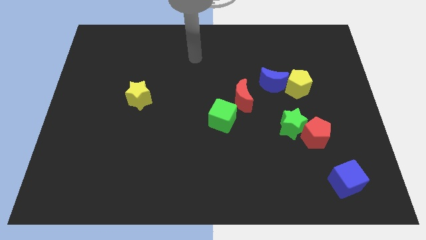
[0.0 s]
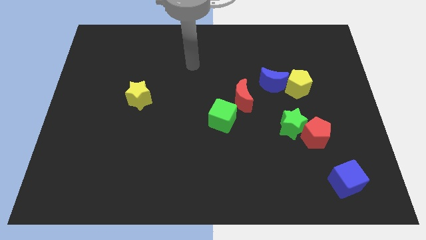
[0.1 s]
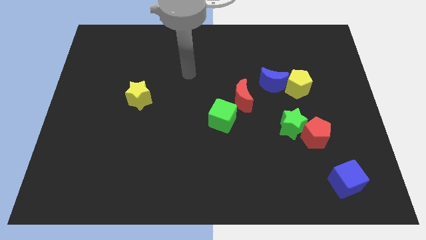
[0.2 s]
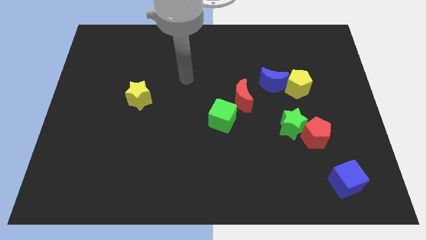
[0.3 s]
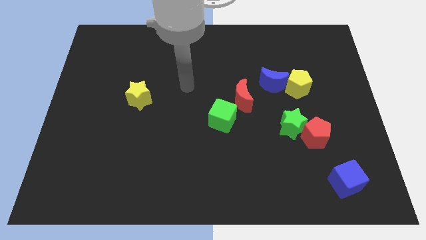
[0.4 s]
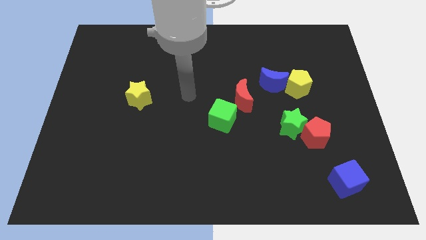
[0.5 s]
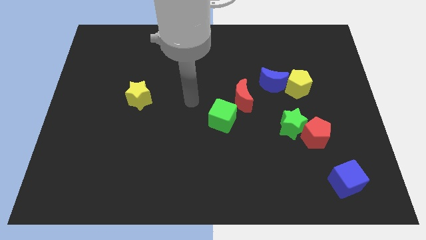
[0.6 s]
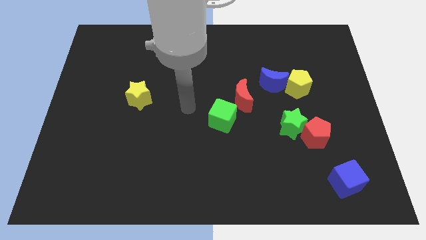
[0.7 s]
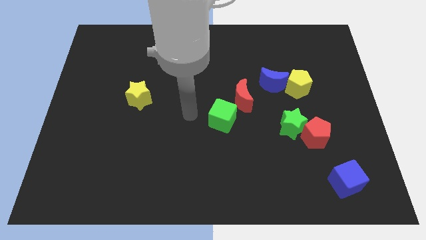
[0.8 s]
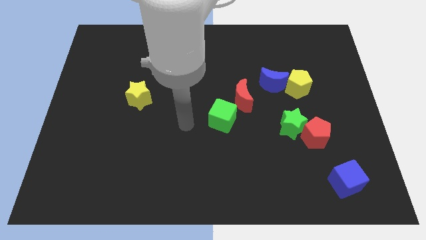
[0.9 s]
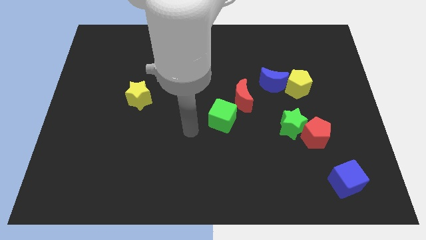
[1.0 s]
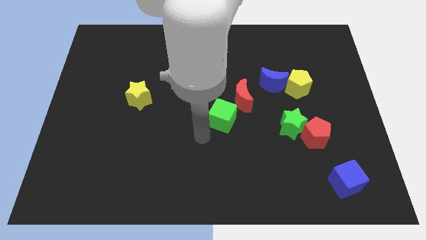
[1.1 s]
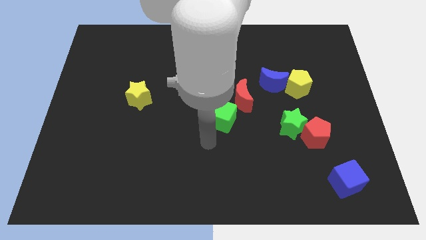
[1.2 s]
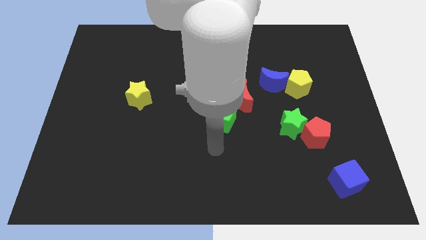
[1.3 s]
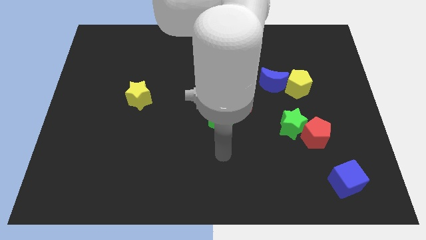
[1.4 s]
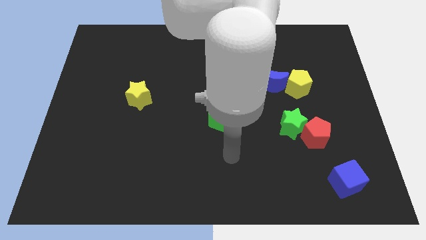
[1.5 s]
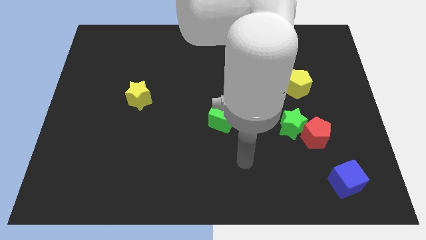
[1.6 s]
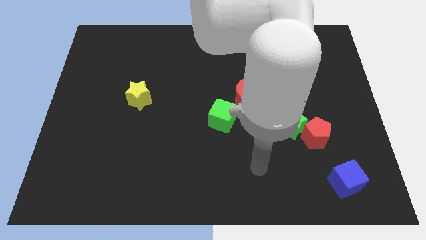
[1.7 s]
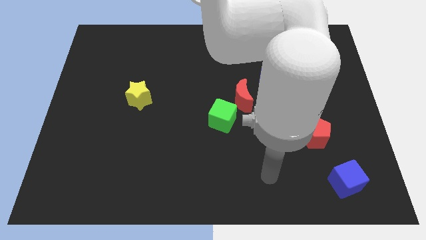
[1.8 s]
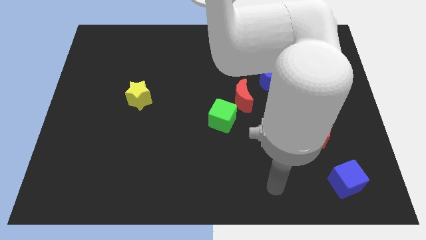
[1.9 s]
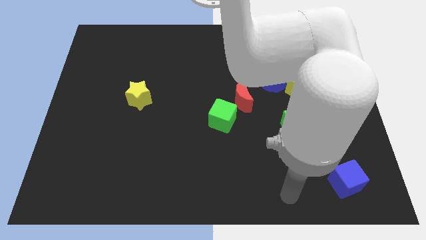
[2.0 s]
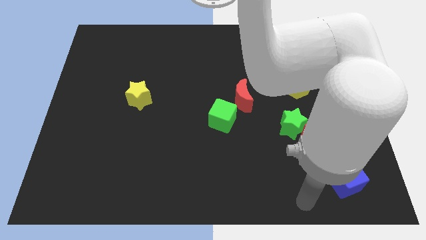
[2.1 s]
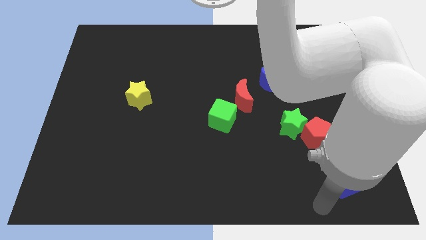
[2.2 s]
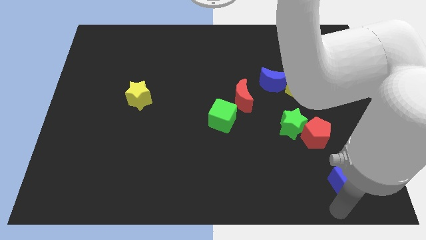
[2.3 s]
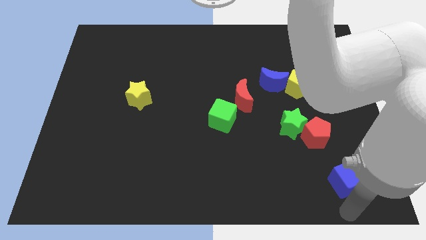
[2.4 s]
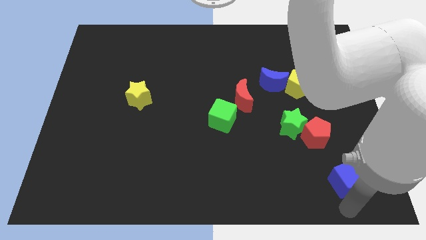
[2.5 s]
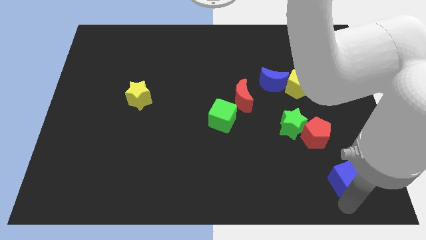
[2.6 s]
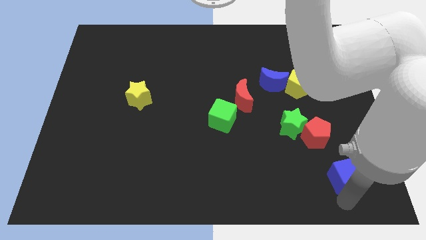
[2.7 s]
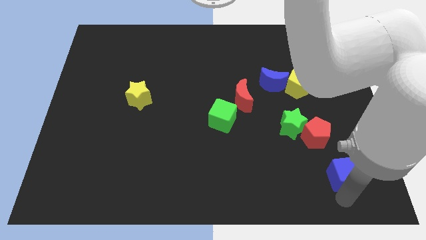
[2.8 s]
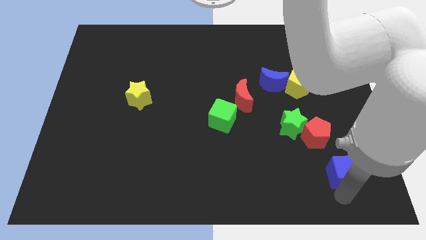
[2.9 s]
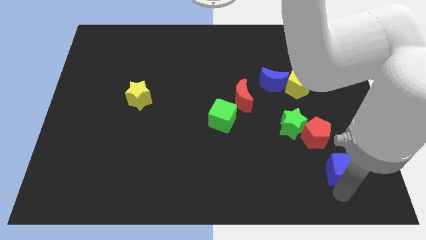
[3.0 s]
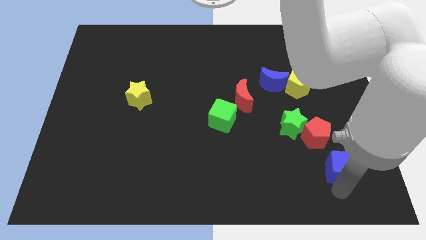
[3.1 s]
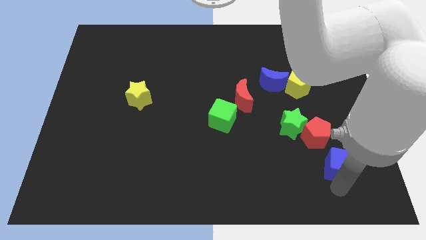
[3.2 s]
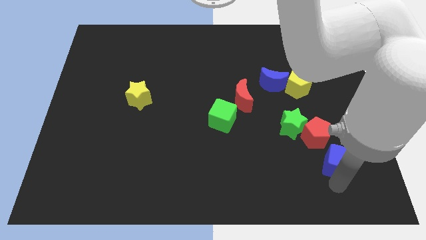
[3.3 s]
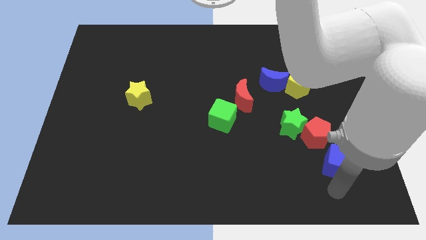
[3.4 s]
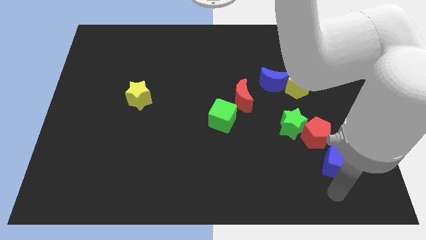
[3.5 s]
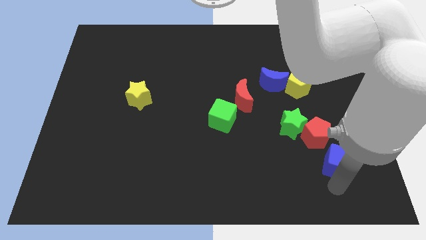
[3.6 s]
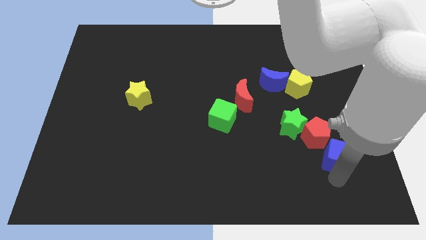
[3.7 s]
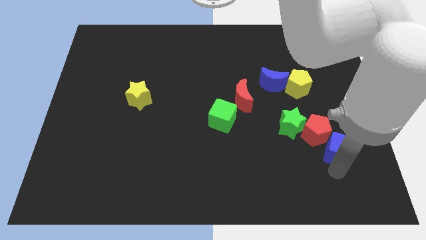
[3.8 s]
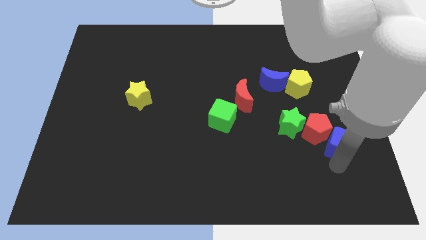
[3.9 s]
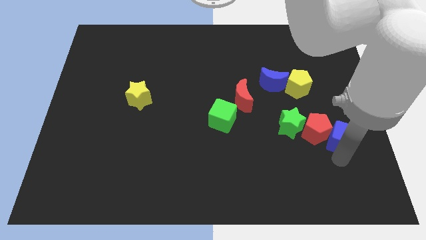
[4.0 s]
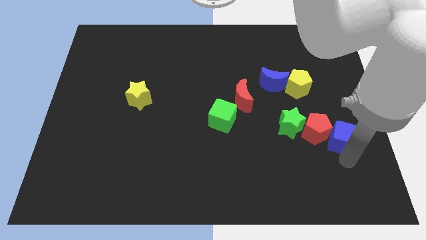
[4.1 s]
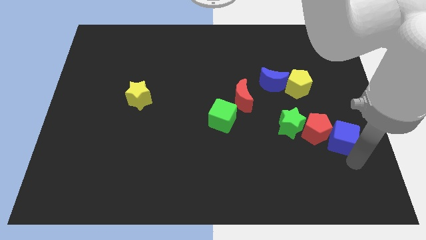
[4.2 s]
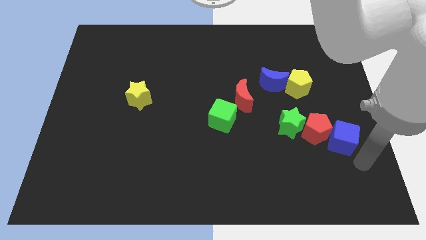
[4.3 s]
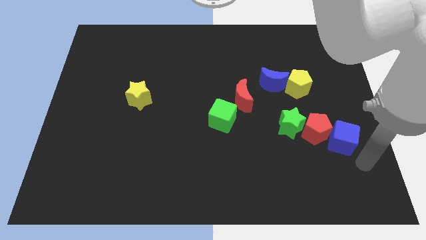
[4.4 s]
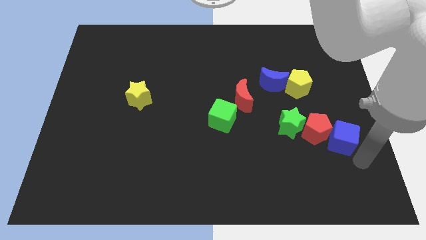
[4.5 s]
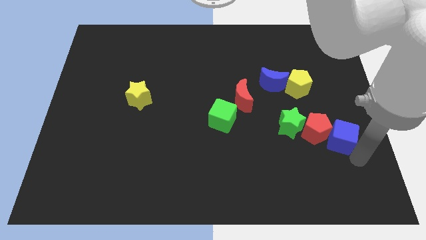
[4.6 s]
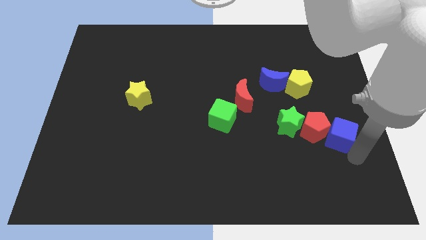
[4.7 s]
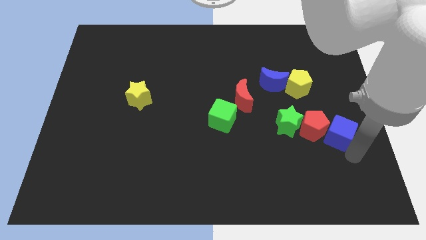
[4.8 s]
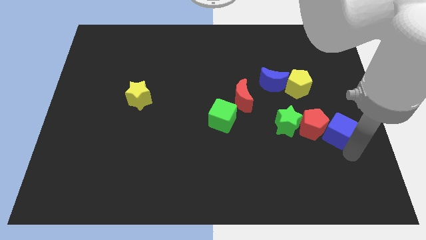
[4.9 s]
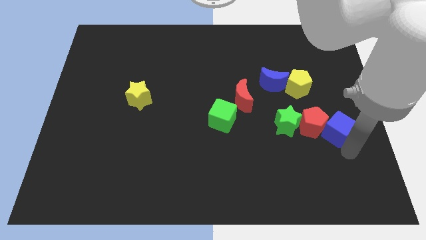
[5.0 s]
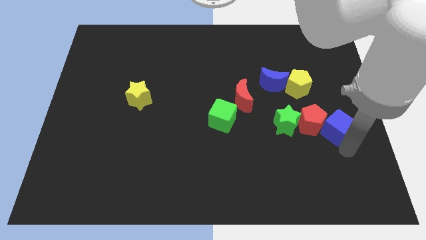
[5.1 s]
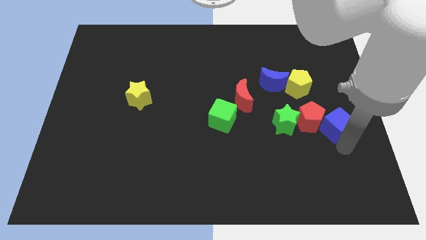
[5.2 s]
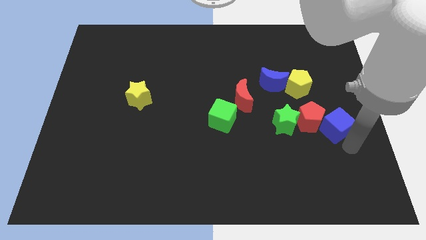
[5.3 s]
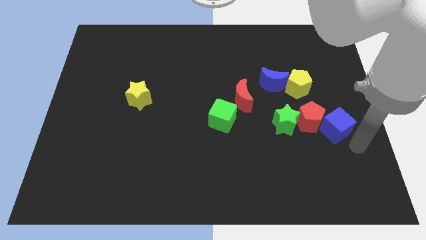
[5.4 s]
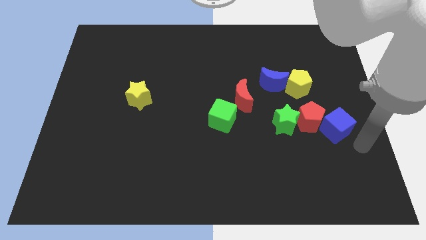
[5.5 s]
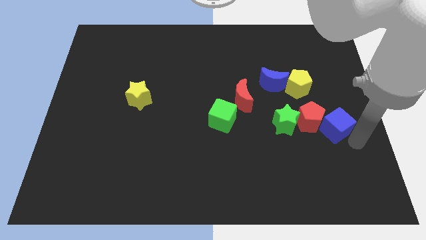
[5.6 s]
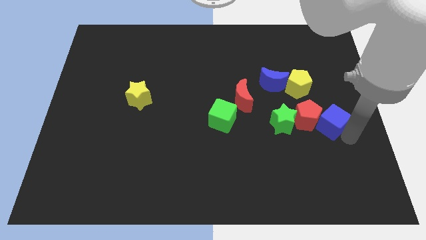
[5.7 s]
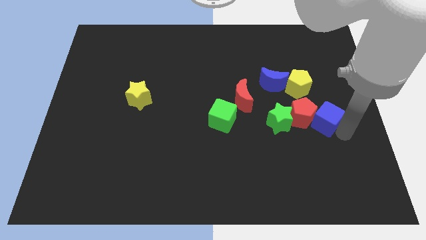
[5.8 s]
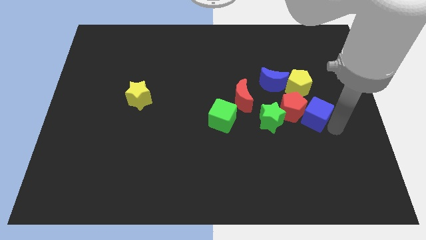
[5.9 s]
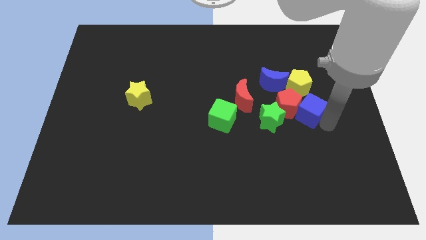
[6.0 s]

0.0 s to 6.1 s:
put the blue cube to the bottom right side of the blue moon
